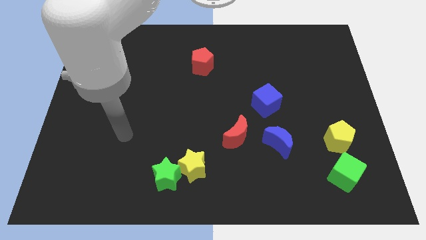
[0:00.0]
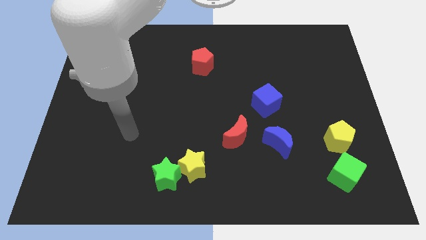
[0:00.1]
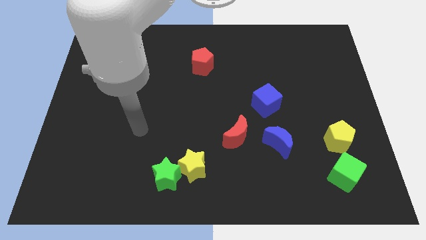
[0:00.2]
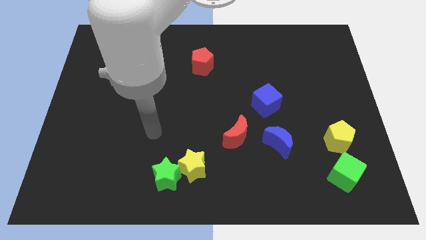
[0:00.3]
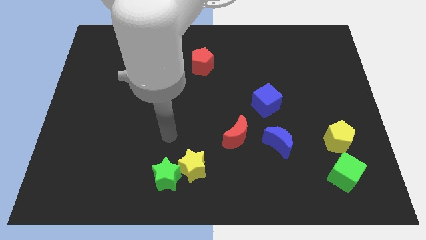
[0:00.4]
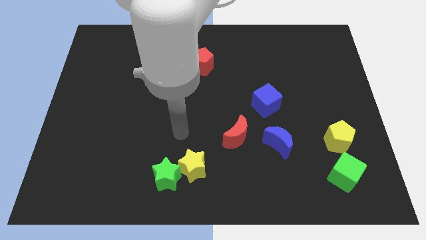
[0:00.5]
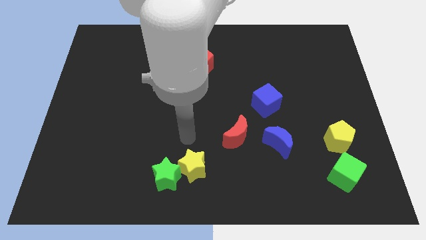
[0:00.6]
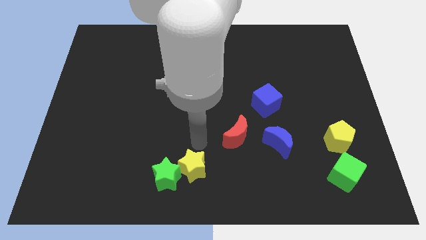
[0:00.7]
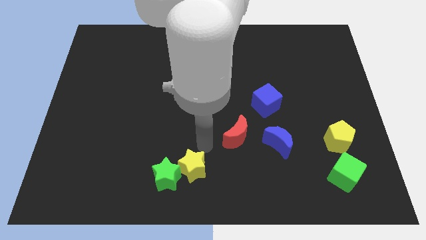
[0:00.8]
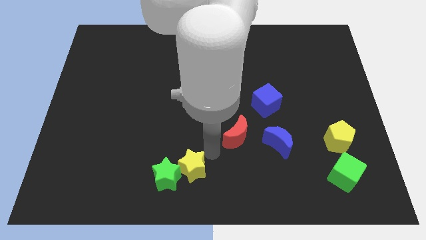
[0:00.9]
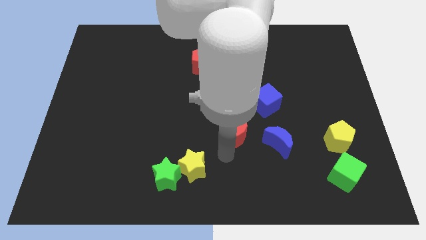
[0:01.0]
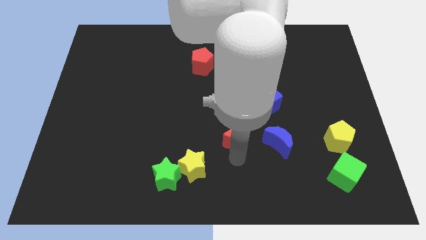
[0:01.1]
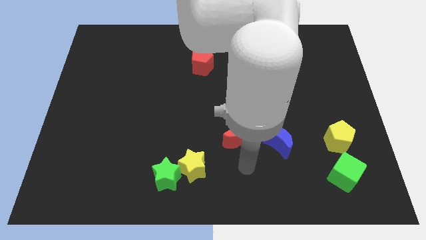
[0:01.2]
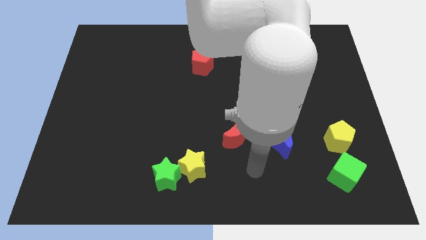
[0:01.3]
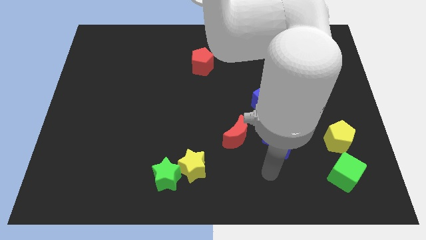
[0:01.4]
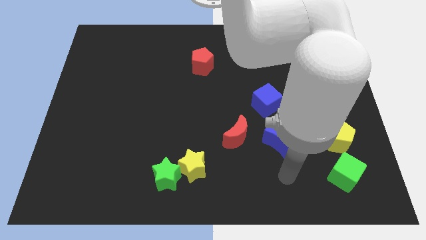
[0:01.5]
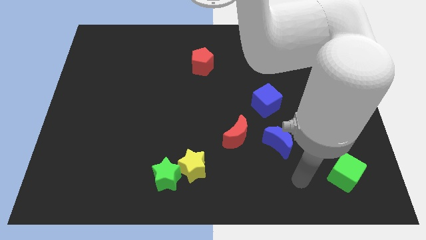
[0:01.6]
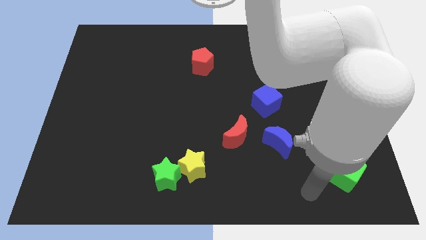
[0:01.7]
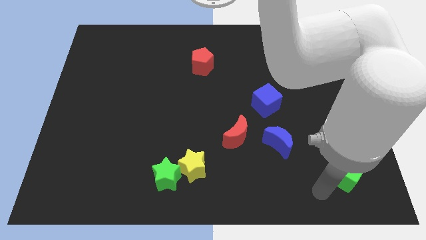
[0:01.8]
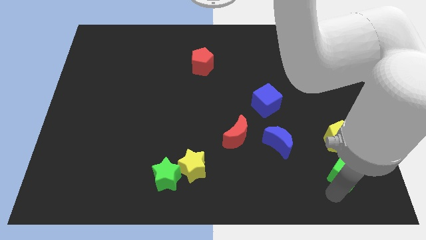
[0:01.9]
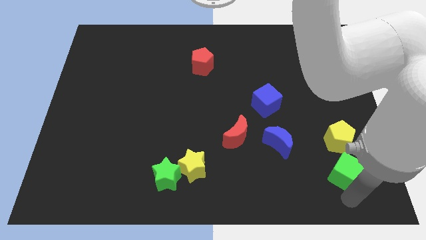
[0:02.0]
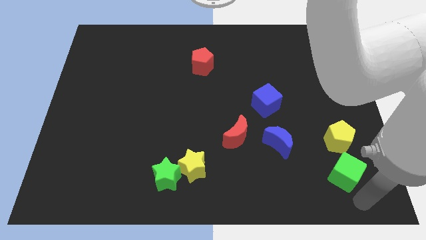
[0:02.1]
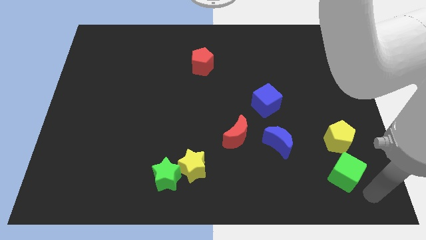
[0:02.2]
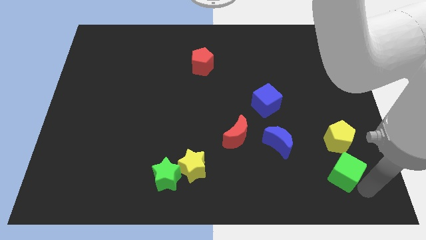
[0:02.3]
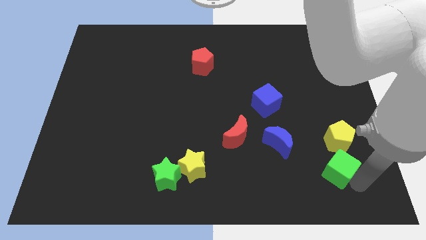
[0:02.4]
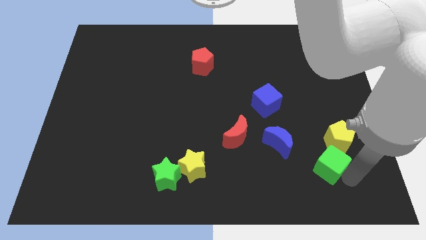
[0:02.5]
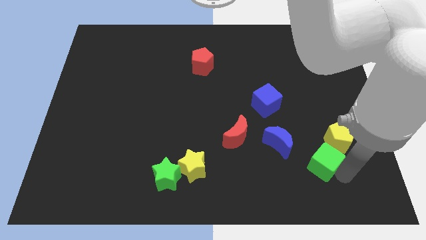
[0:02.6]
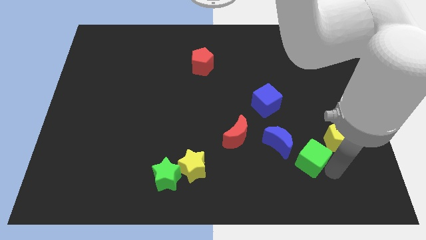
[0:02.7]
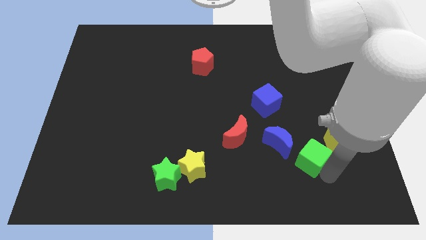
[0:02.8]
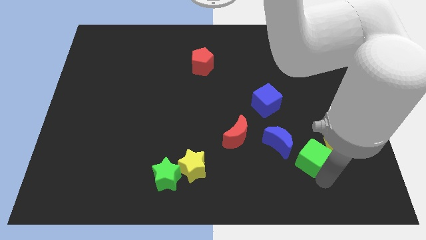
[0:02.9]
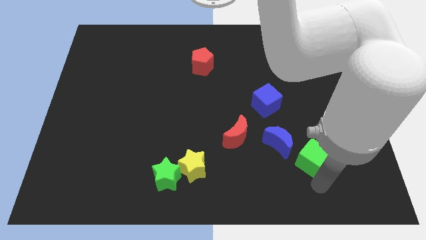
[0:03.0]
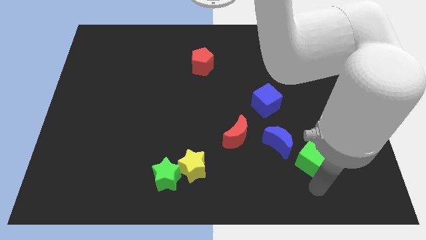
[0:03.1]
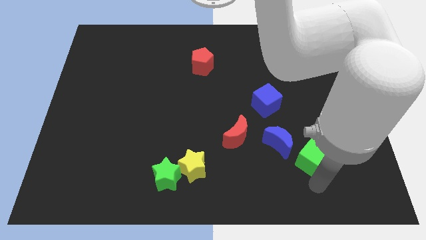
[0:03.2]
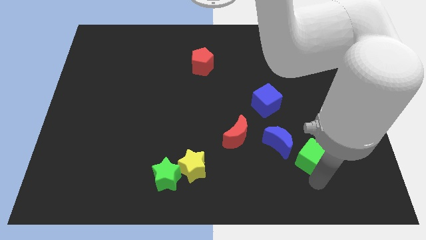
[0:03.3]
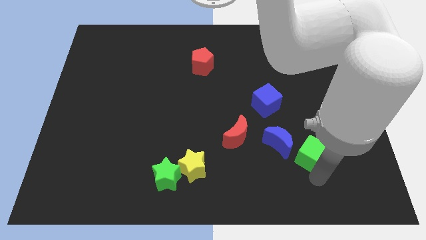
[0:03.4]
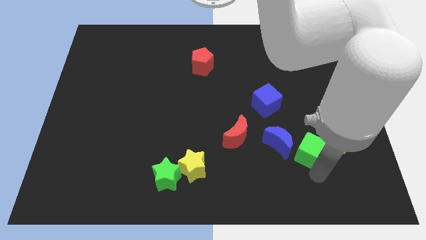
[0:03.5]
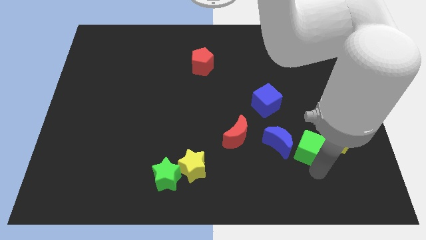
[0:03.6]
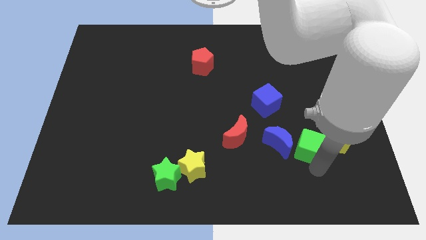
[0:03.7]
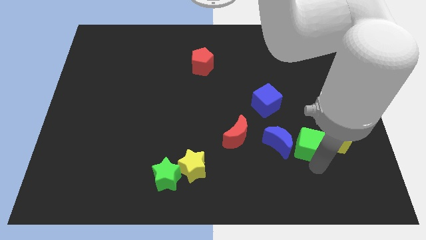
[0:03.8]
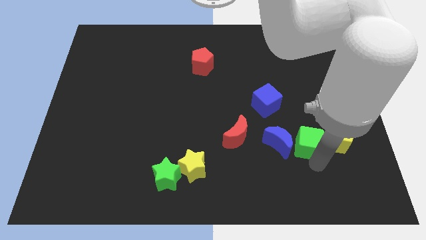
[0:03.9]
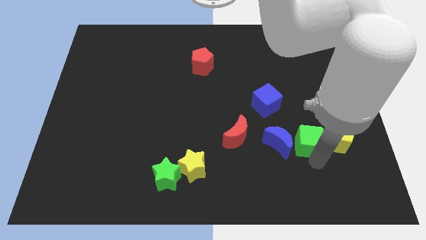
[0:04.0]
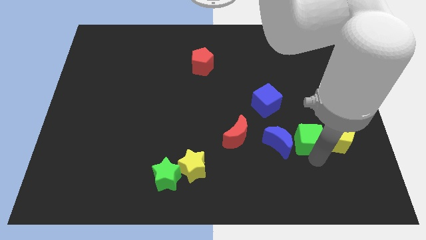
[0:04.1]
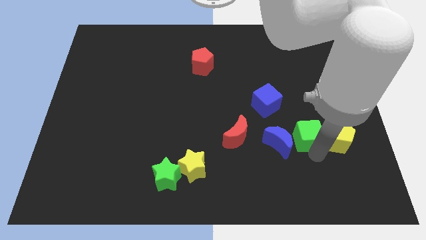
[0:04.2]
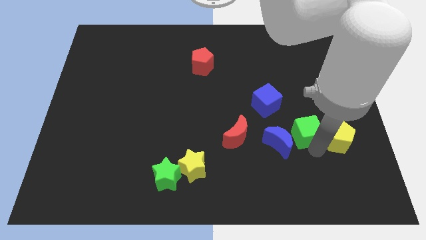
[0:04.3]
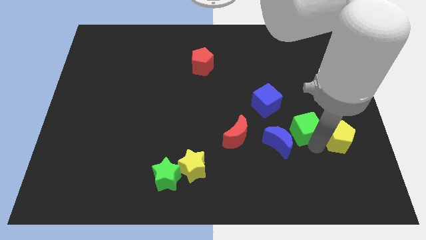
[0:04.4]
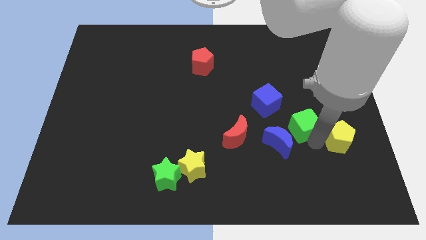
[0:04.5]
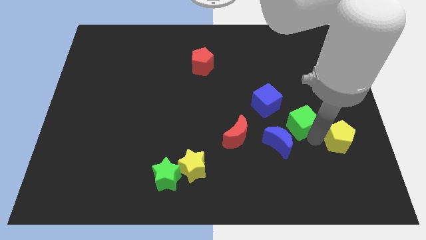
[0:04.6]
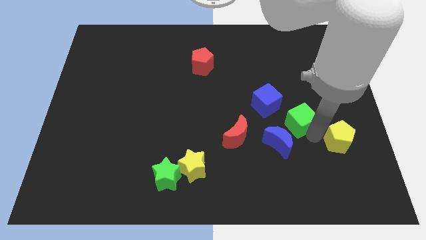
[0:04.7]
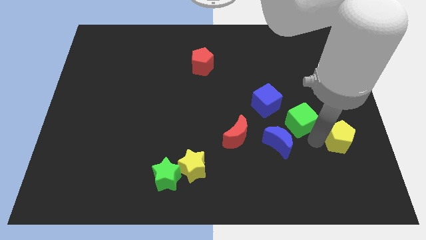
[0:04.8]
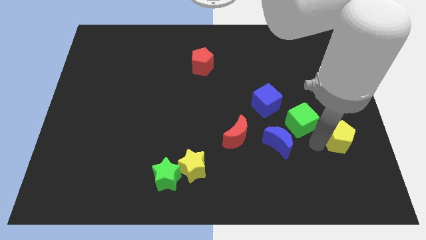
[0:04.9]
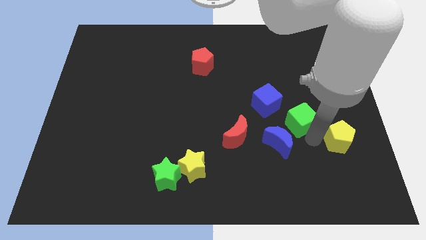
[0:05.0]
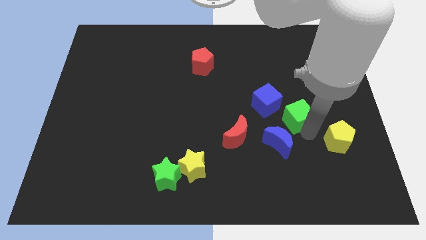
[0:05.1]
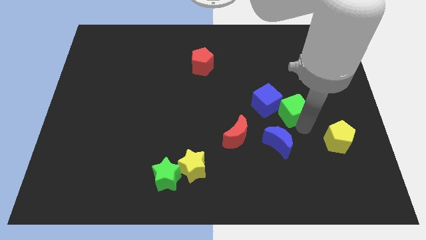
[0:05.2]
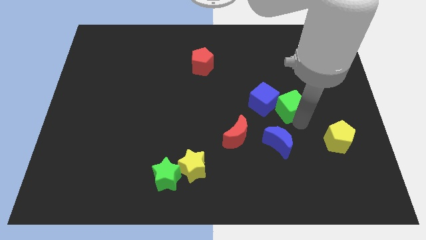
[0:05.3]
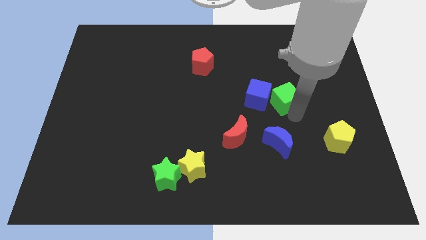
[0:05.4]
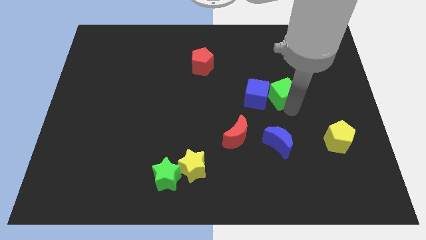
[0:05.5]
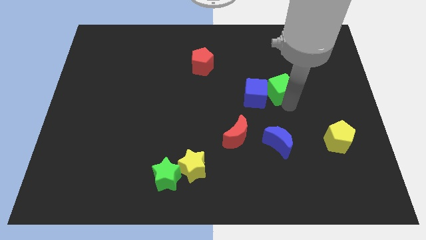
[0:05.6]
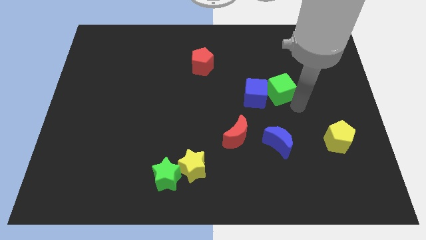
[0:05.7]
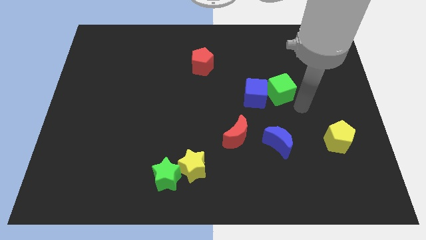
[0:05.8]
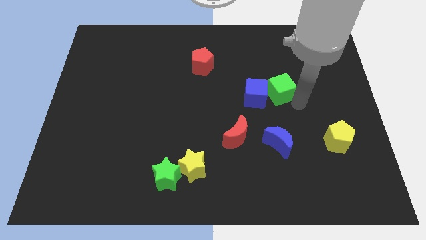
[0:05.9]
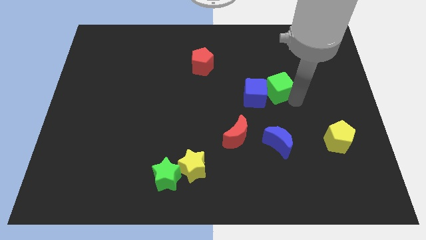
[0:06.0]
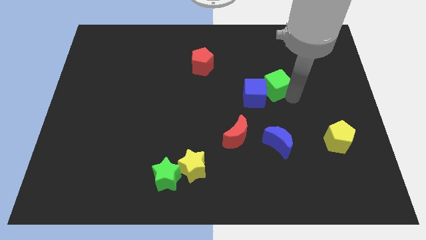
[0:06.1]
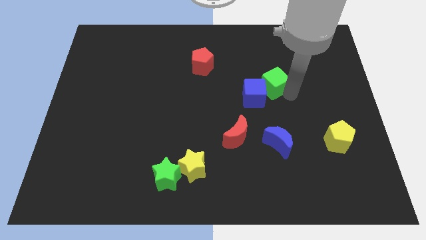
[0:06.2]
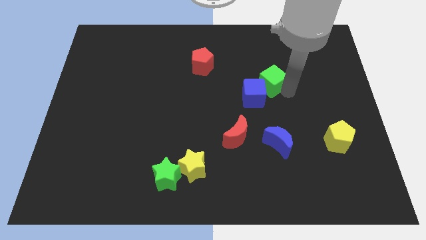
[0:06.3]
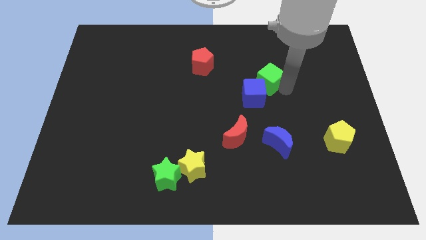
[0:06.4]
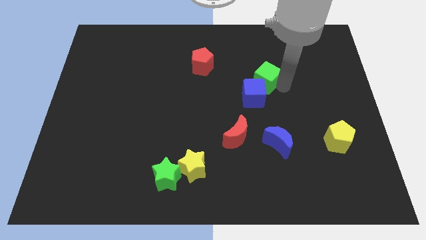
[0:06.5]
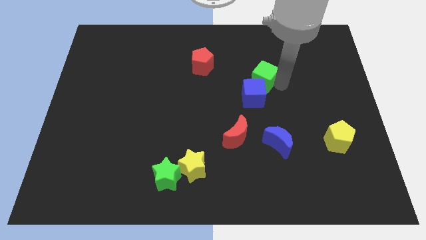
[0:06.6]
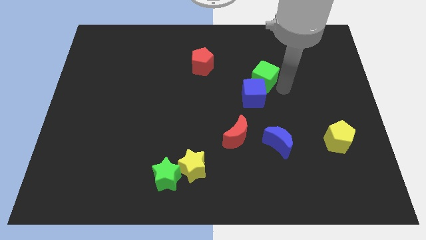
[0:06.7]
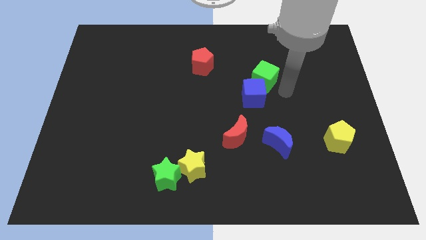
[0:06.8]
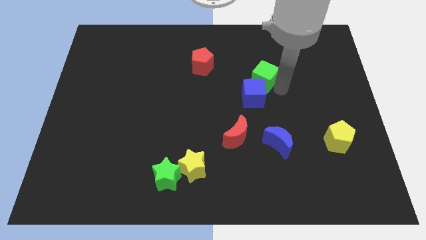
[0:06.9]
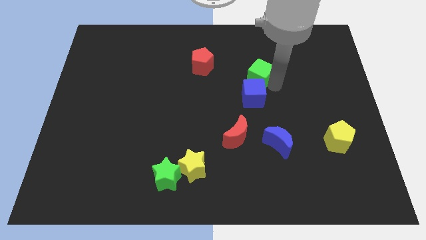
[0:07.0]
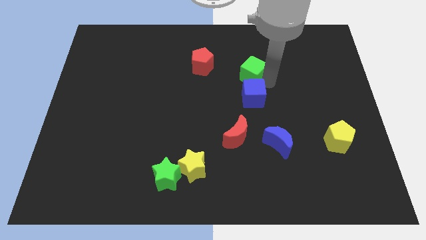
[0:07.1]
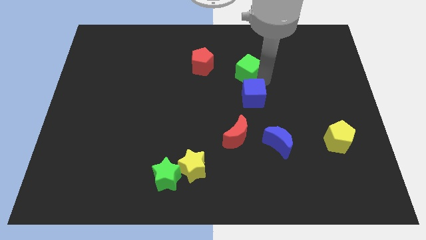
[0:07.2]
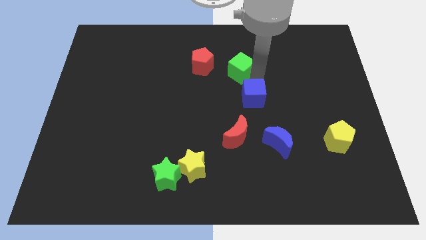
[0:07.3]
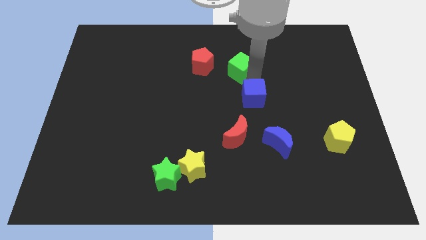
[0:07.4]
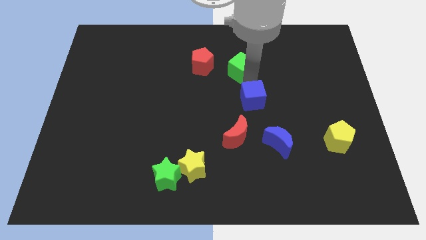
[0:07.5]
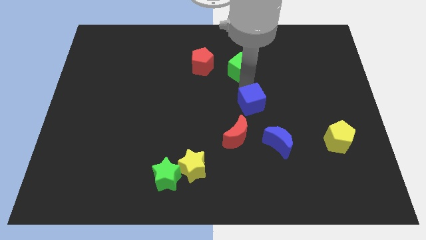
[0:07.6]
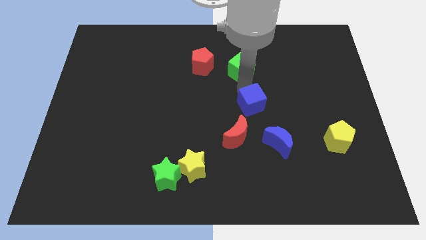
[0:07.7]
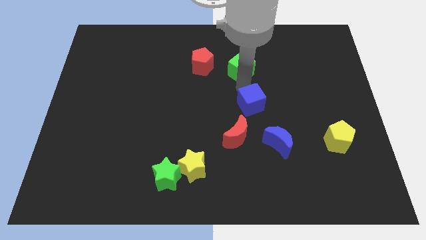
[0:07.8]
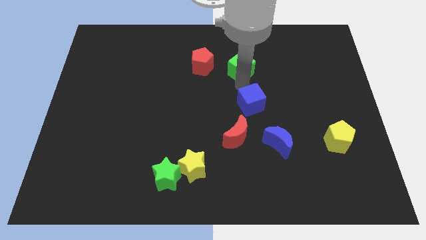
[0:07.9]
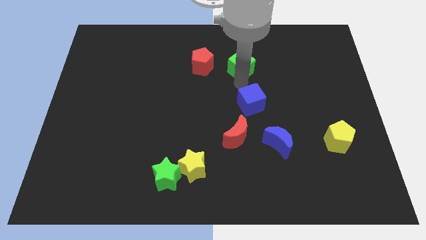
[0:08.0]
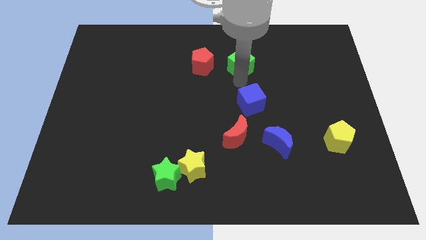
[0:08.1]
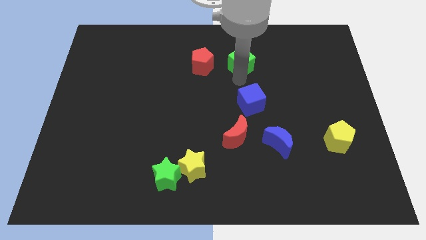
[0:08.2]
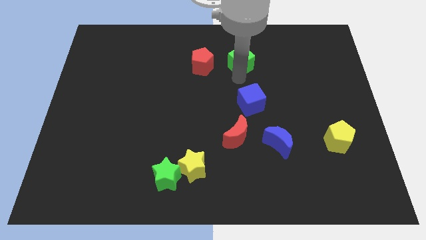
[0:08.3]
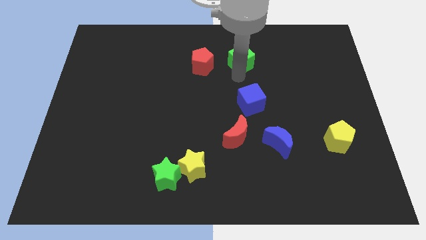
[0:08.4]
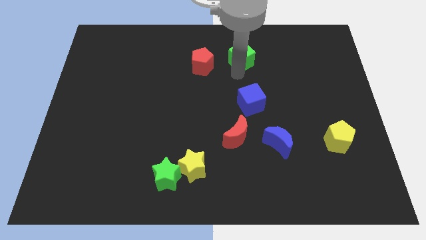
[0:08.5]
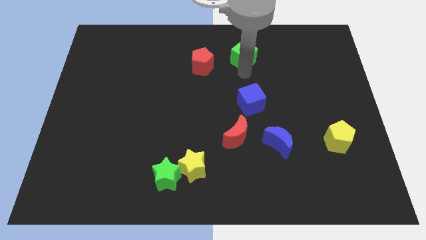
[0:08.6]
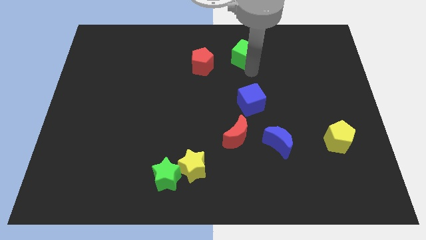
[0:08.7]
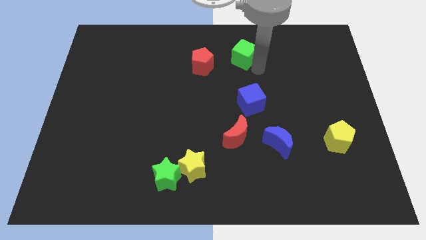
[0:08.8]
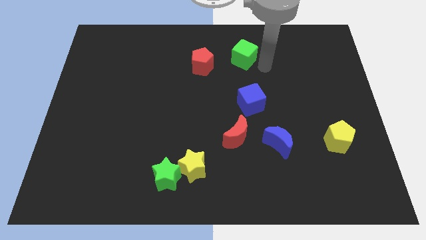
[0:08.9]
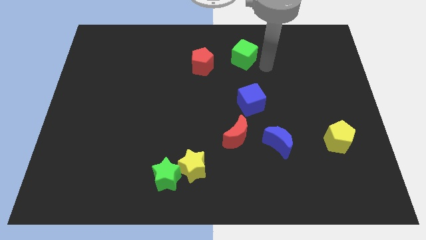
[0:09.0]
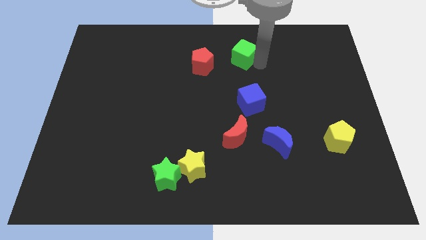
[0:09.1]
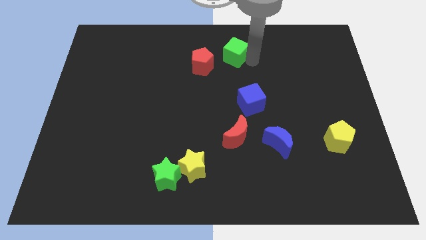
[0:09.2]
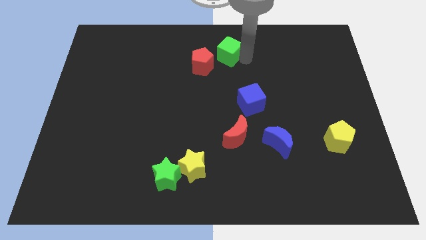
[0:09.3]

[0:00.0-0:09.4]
push the green cube to the towards your base
